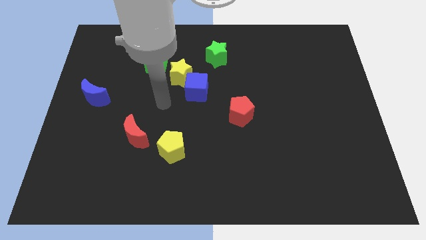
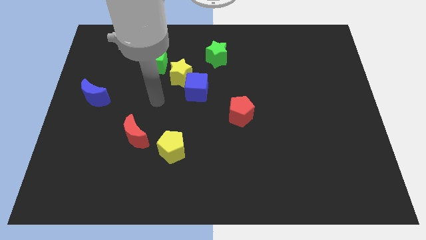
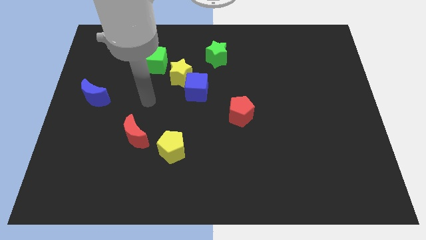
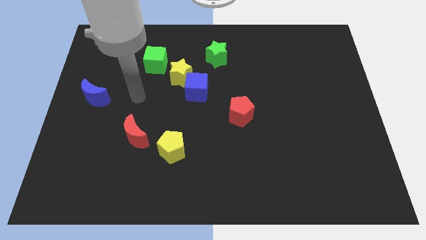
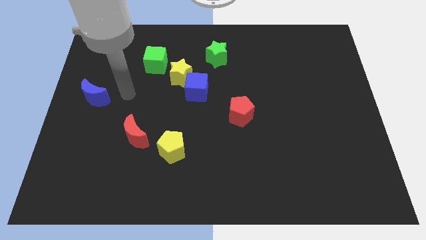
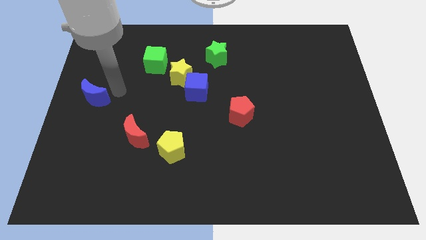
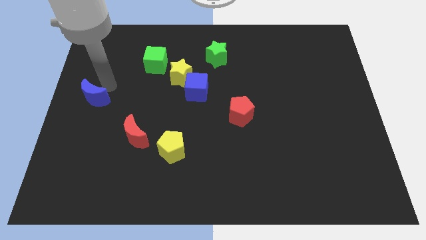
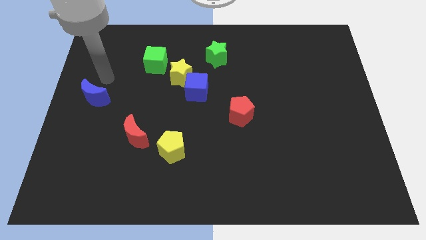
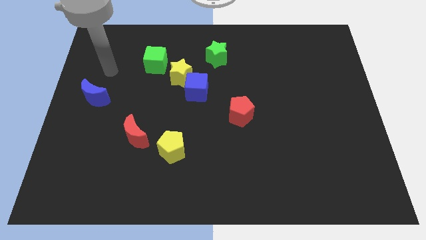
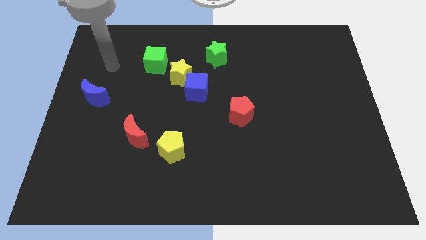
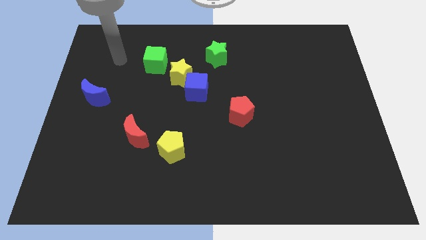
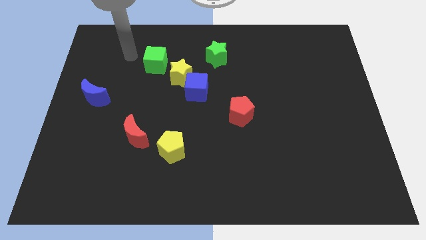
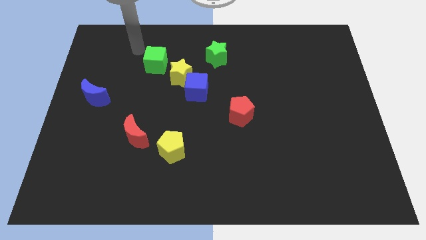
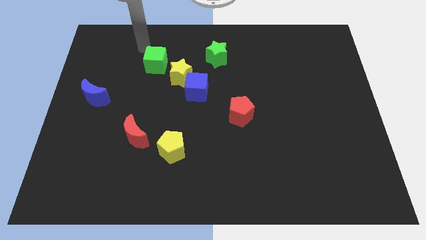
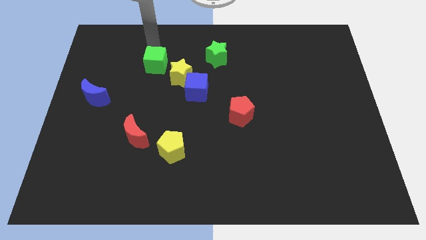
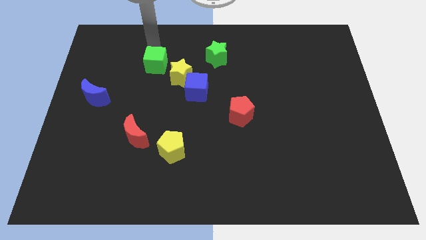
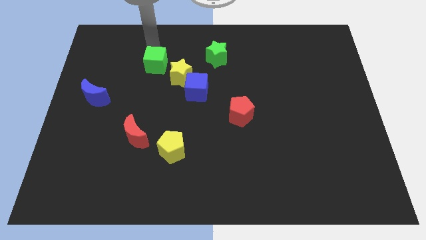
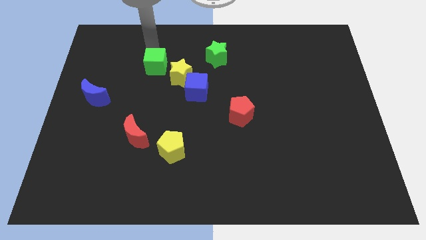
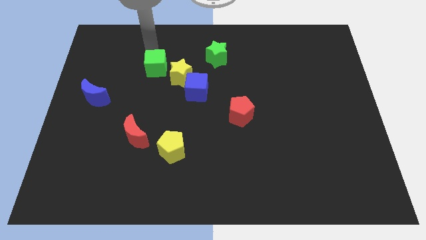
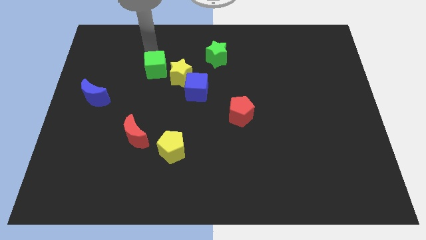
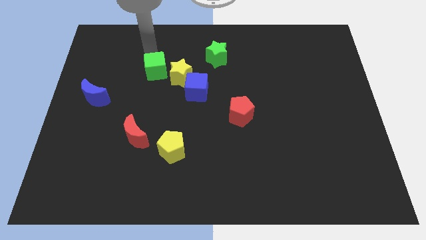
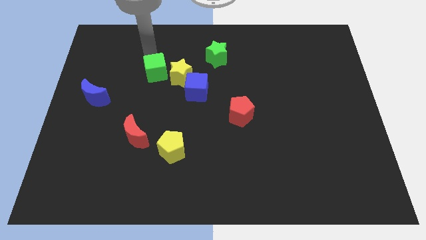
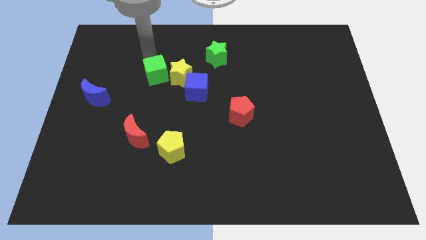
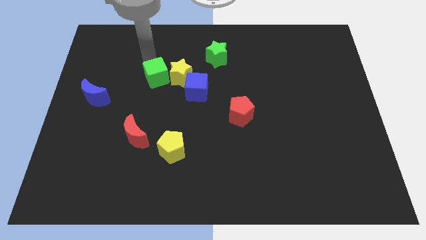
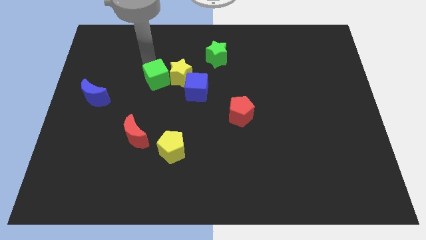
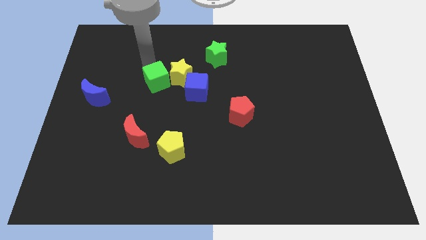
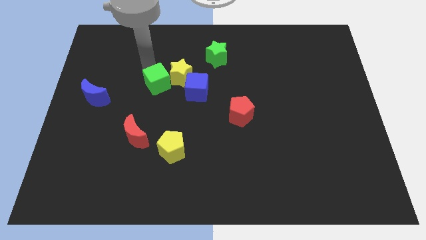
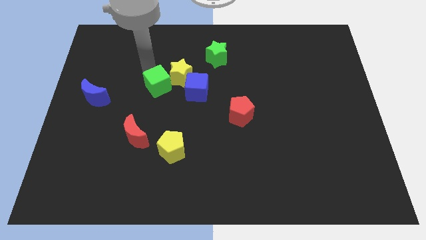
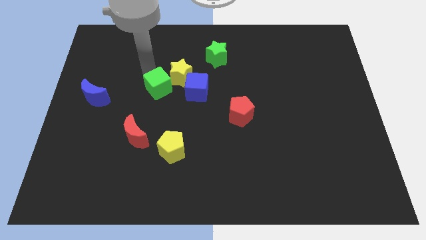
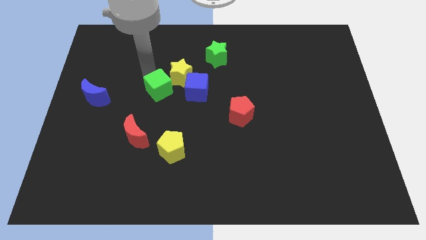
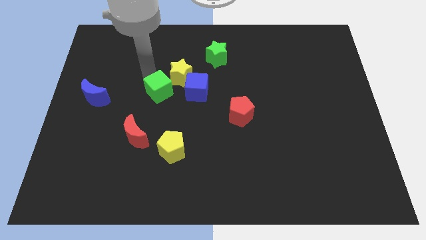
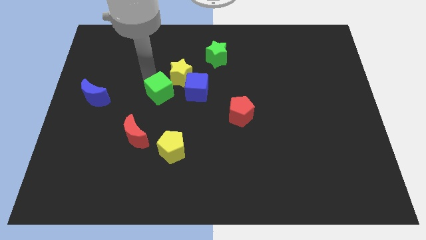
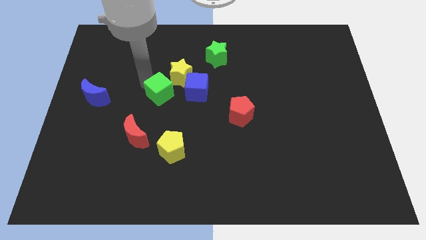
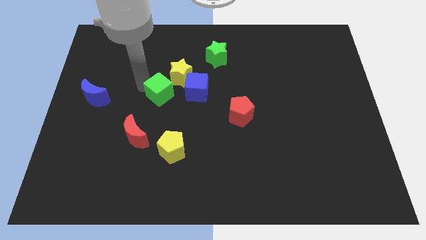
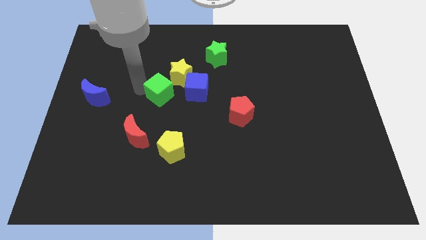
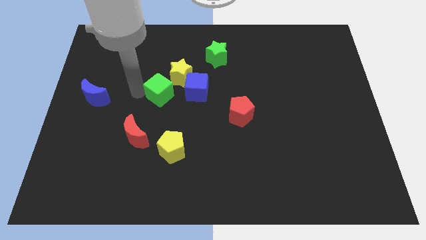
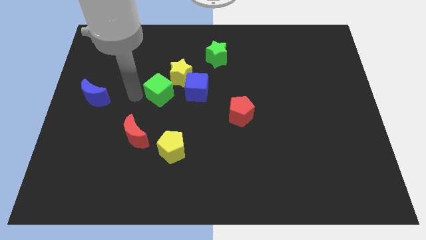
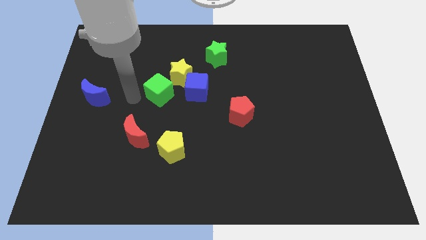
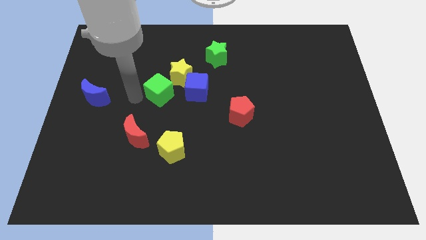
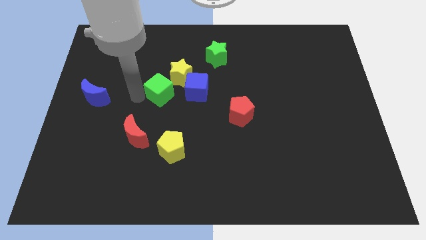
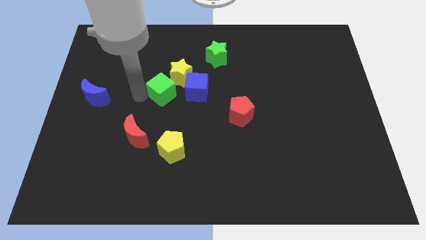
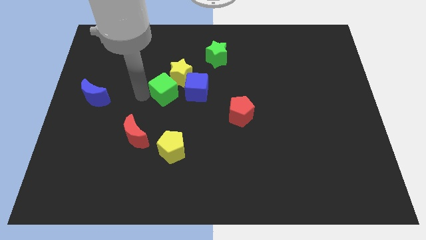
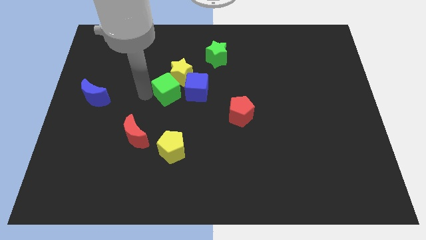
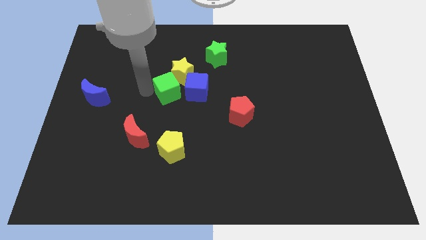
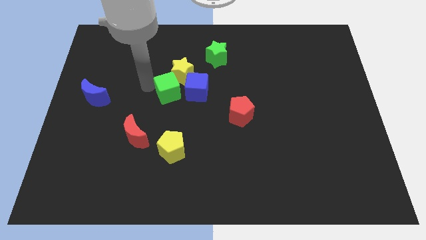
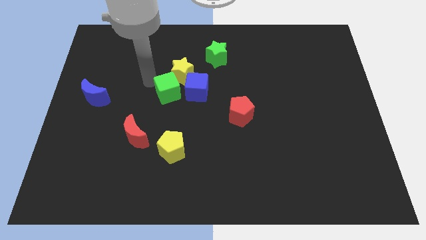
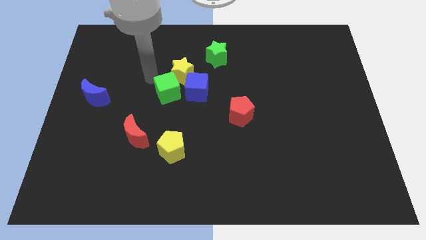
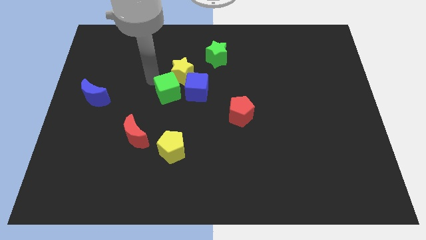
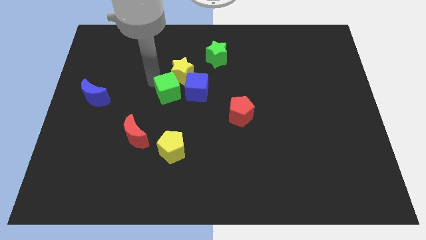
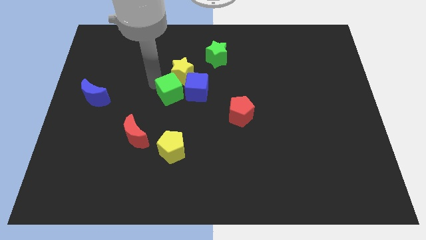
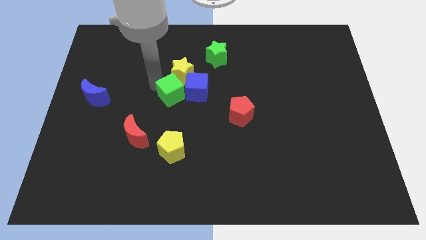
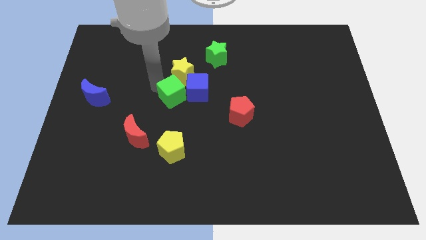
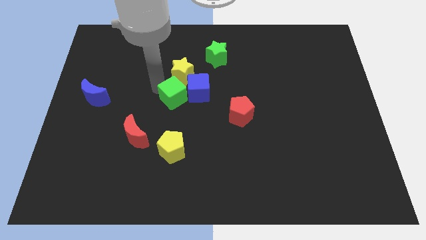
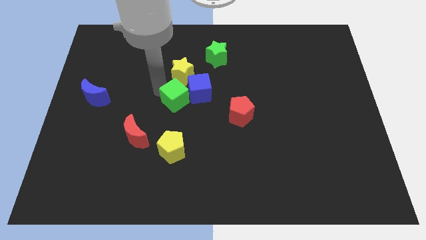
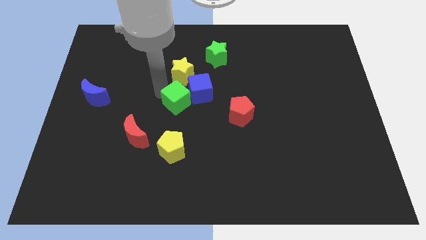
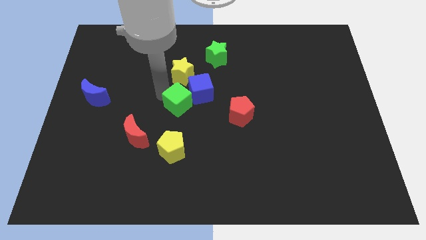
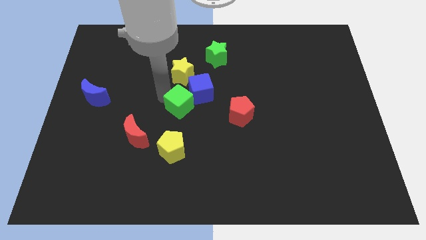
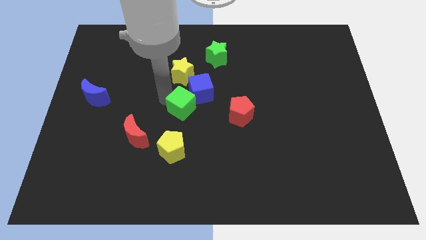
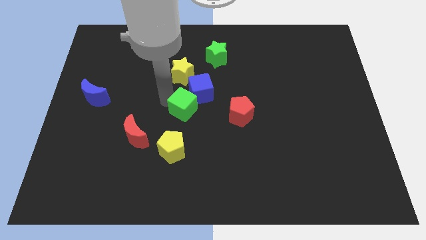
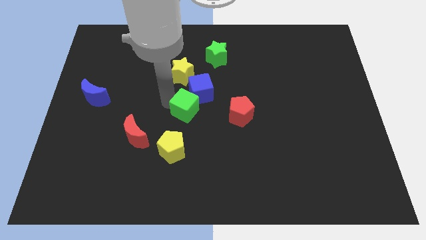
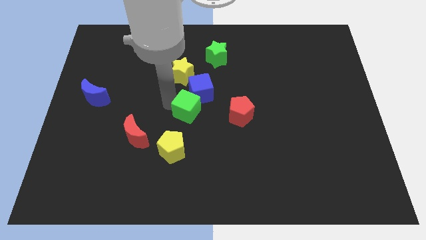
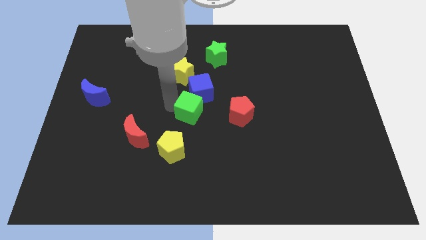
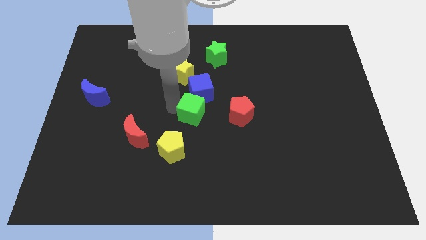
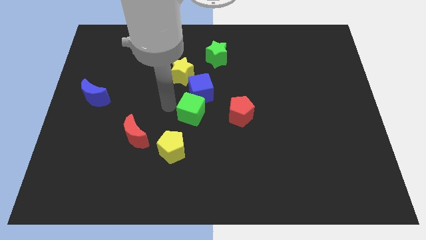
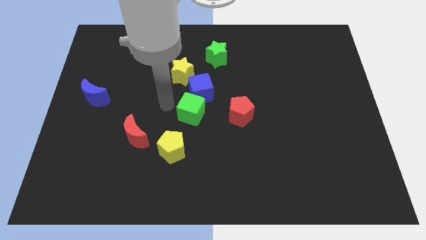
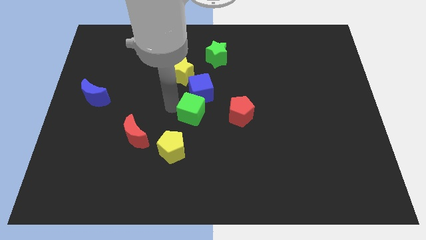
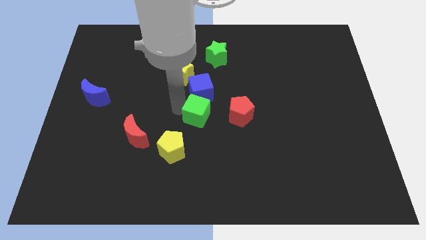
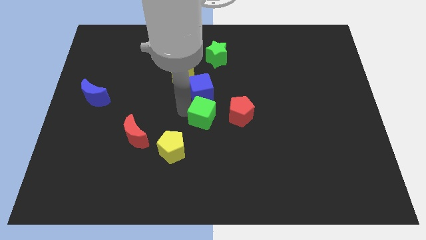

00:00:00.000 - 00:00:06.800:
push the green cube downwards and right

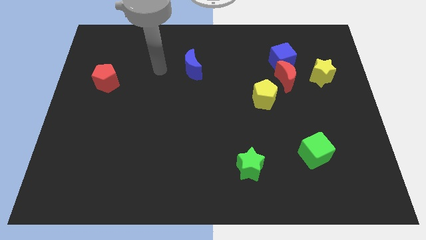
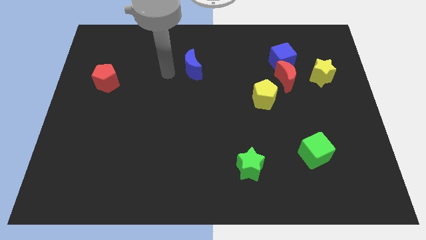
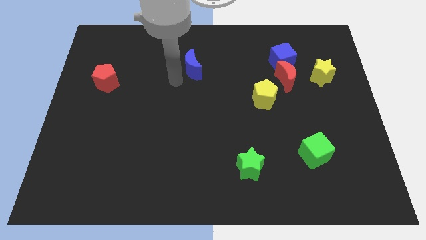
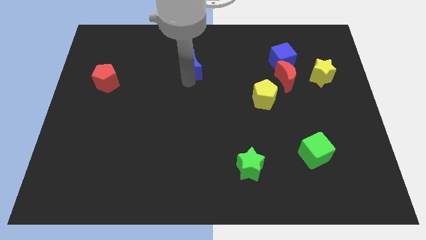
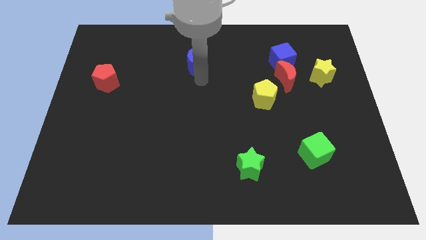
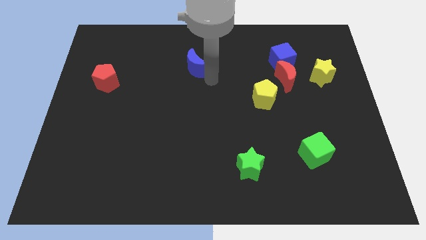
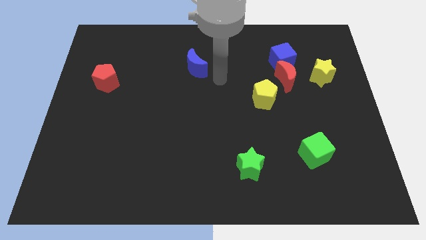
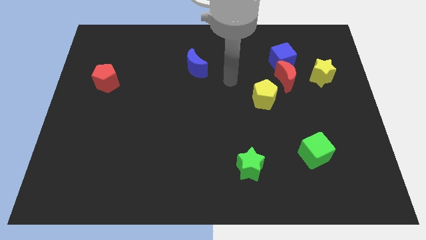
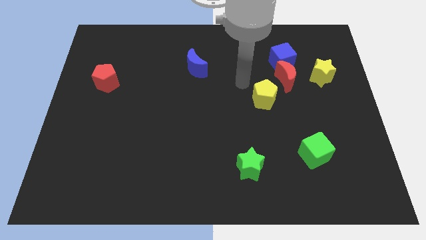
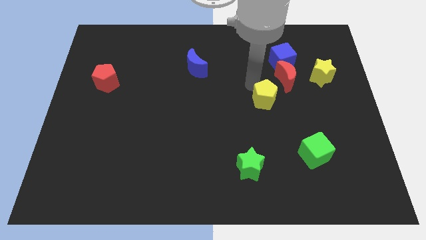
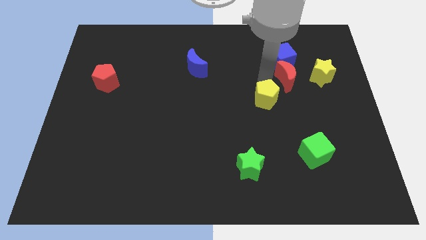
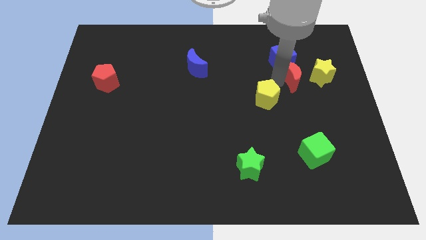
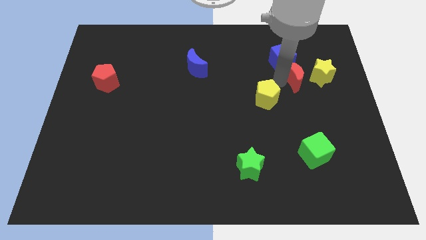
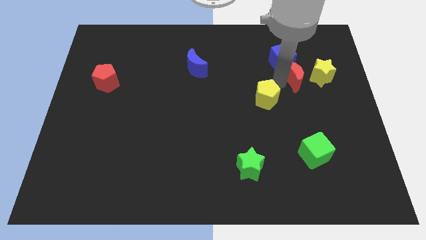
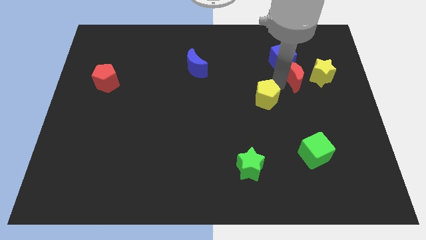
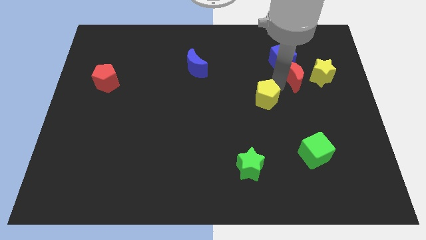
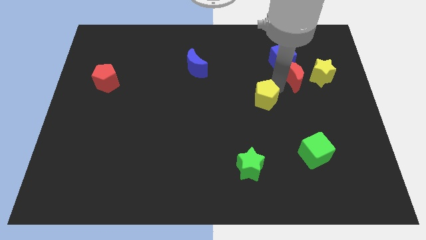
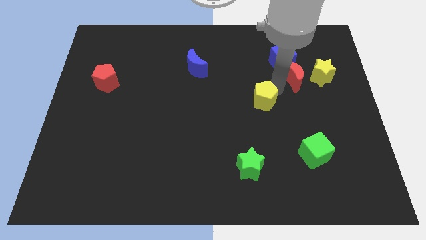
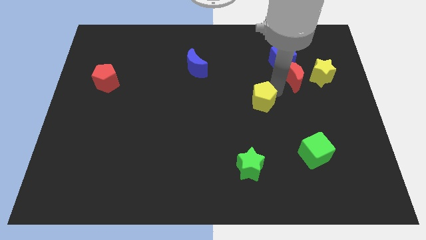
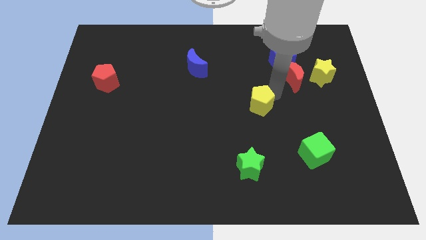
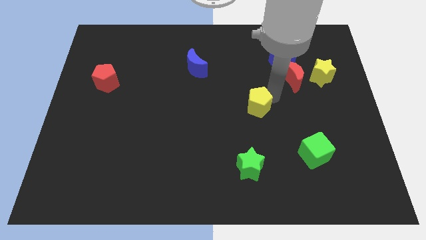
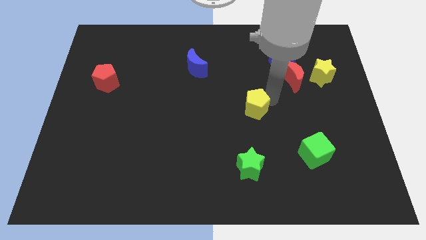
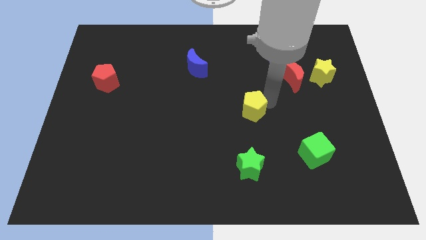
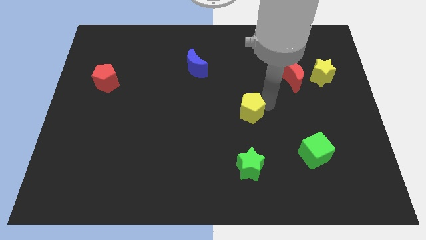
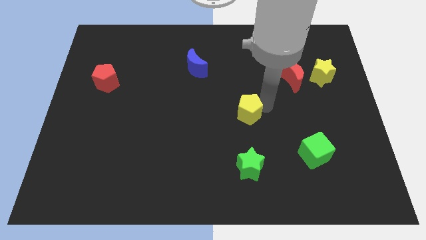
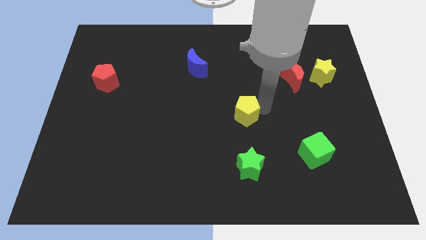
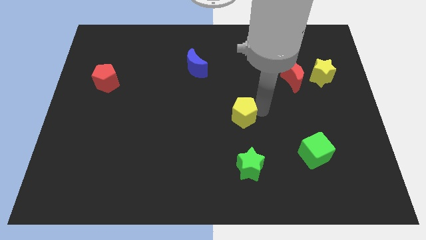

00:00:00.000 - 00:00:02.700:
slide the yellow pentagon a bit down and then left
